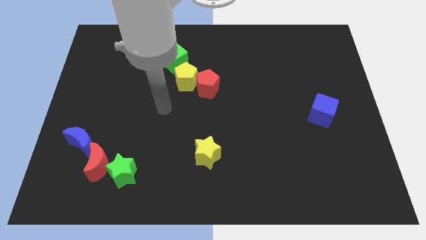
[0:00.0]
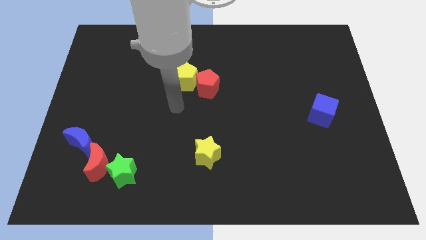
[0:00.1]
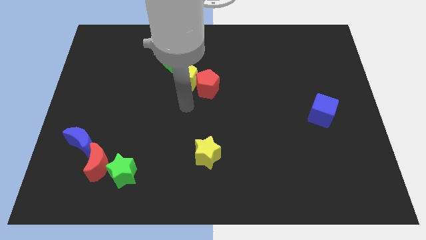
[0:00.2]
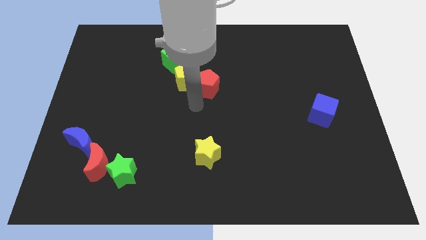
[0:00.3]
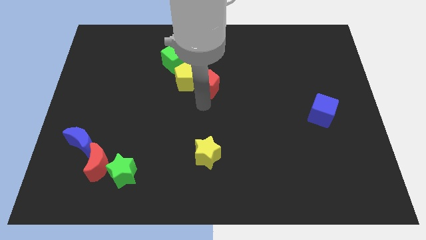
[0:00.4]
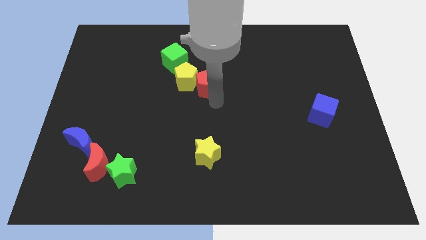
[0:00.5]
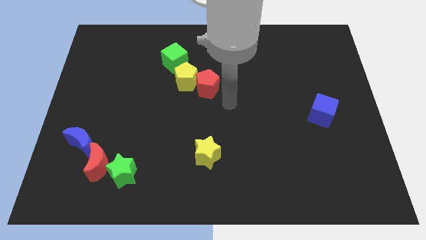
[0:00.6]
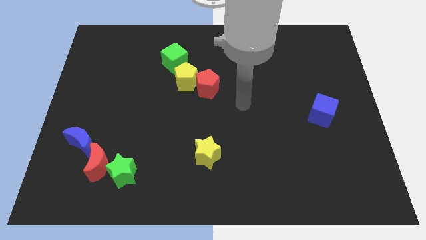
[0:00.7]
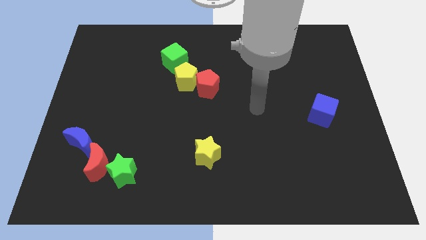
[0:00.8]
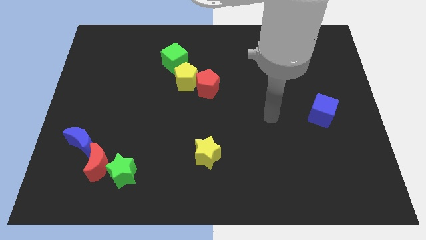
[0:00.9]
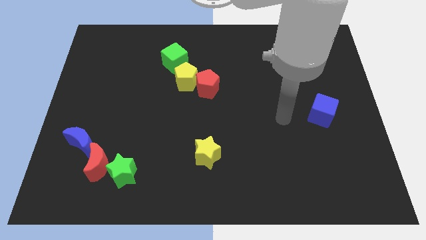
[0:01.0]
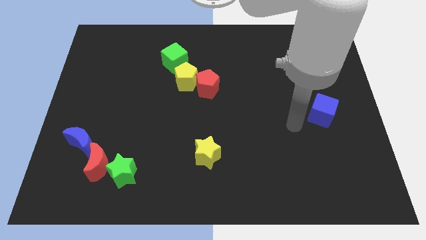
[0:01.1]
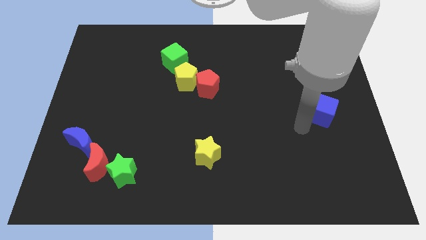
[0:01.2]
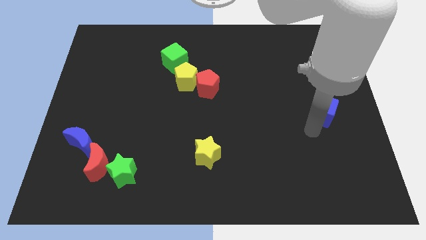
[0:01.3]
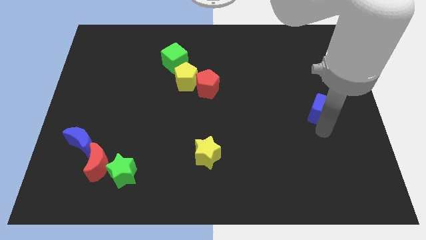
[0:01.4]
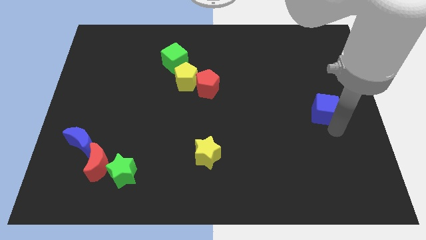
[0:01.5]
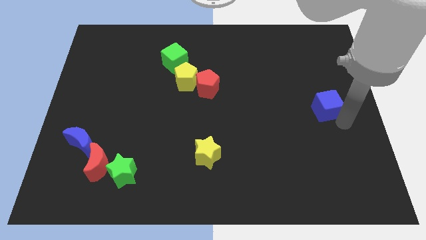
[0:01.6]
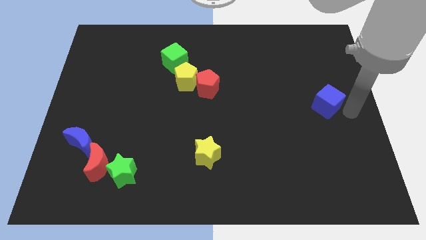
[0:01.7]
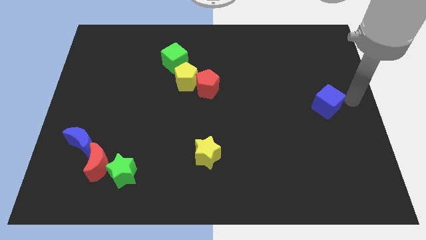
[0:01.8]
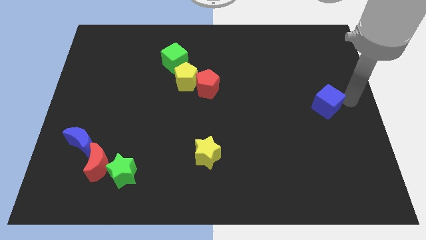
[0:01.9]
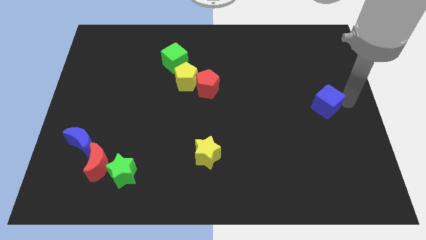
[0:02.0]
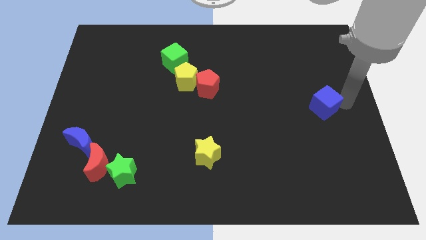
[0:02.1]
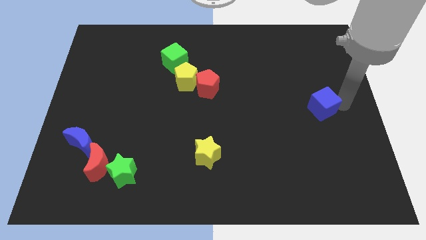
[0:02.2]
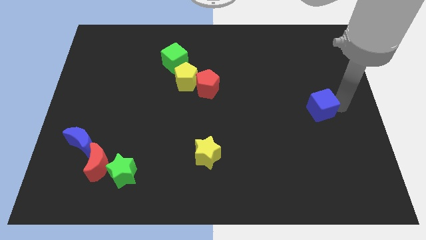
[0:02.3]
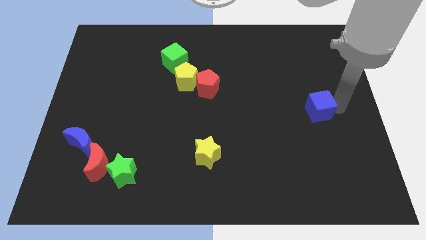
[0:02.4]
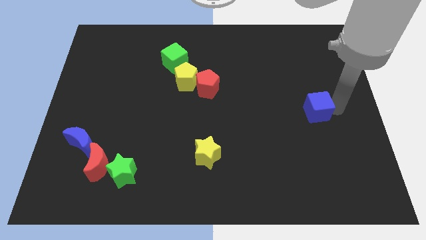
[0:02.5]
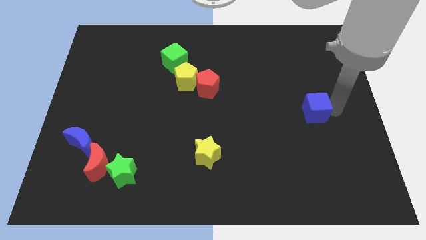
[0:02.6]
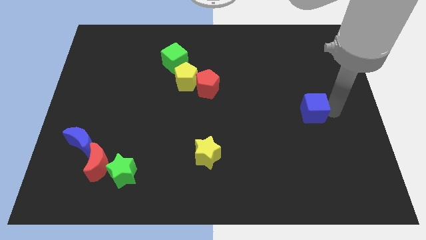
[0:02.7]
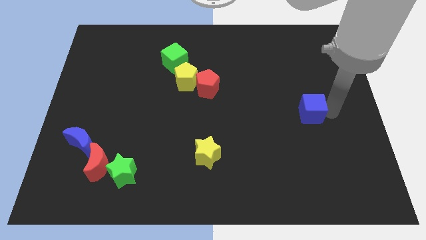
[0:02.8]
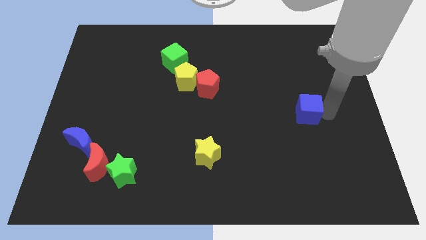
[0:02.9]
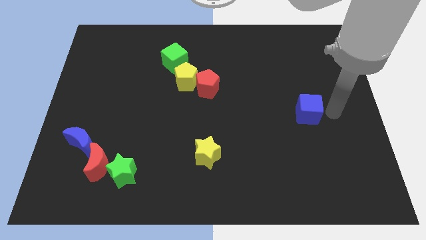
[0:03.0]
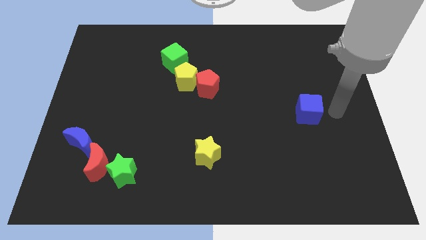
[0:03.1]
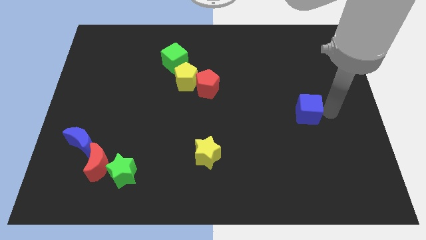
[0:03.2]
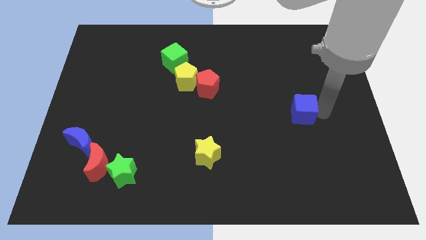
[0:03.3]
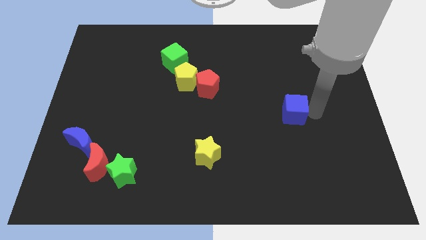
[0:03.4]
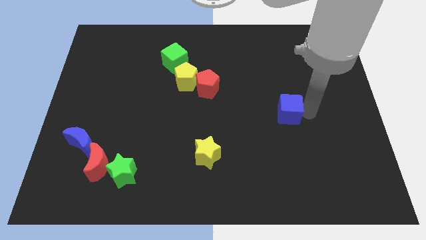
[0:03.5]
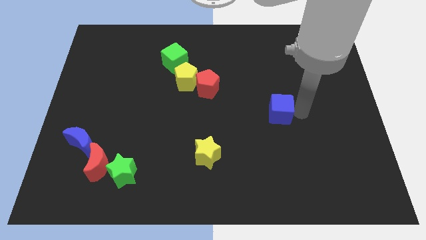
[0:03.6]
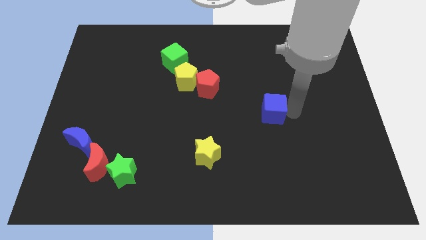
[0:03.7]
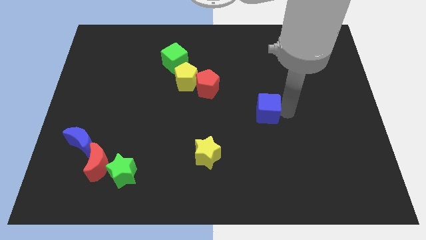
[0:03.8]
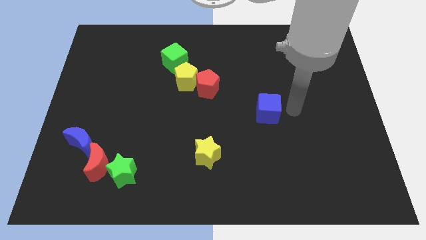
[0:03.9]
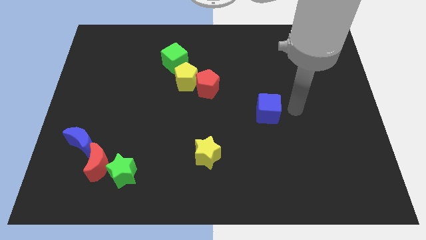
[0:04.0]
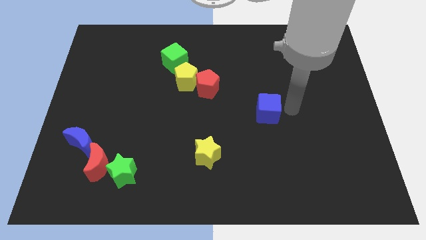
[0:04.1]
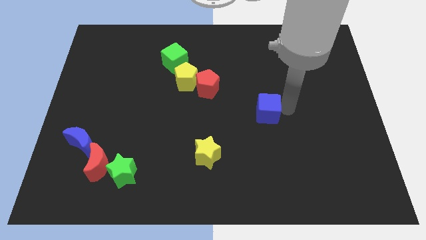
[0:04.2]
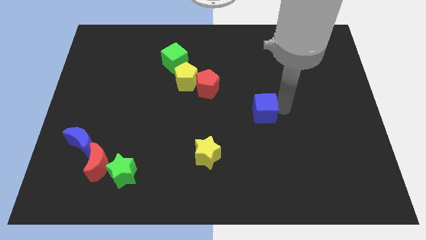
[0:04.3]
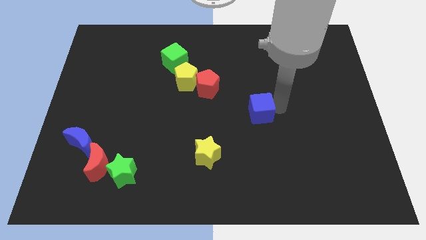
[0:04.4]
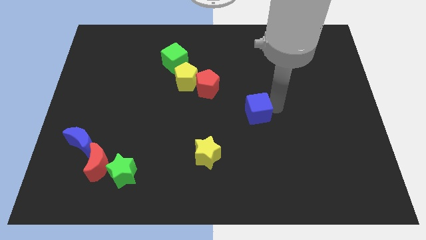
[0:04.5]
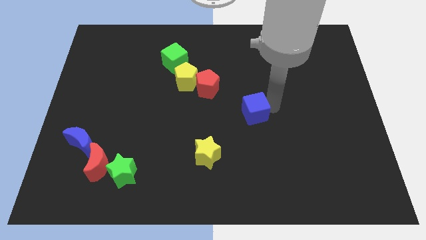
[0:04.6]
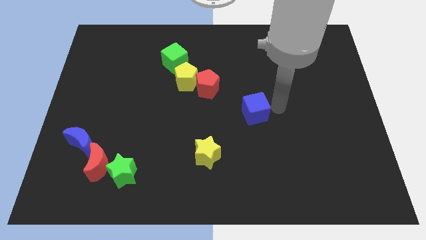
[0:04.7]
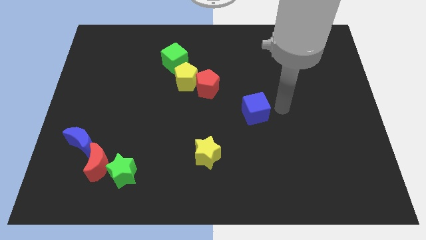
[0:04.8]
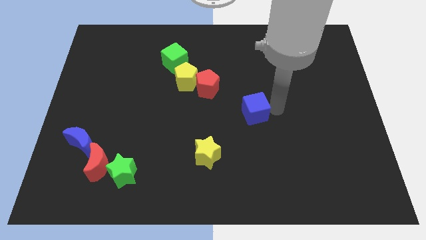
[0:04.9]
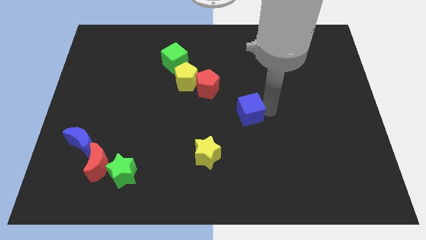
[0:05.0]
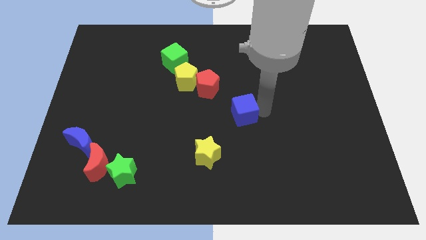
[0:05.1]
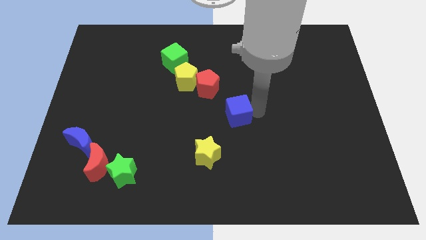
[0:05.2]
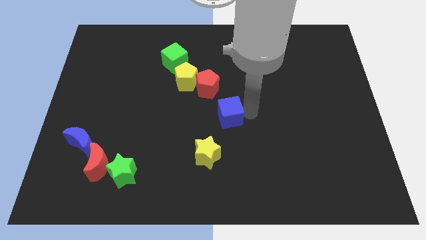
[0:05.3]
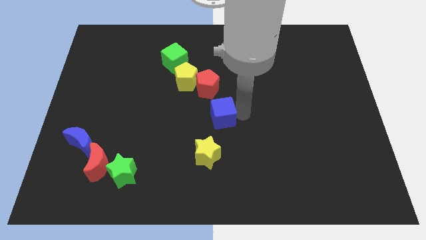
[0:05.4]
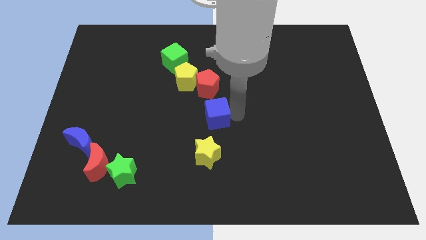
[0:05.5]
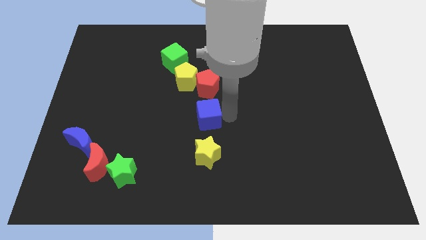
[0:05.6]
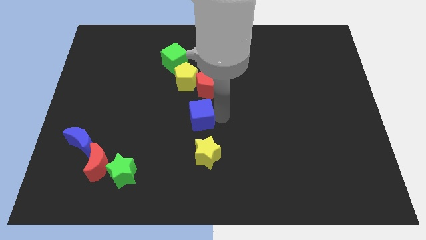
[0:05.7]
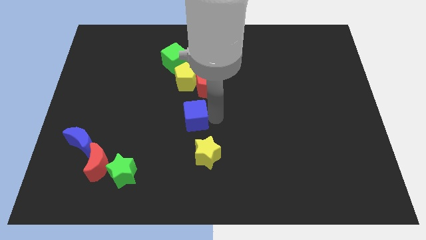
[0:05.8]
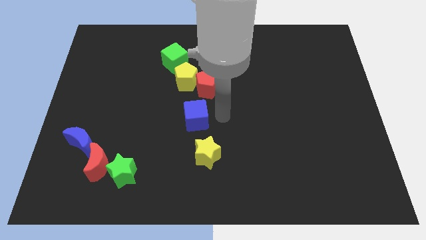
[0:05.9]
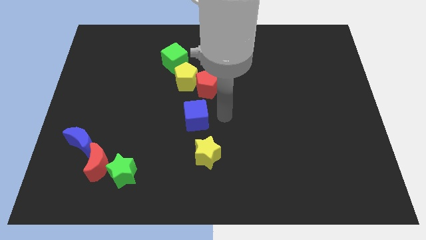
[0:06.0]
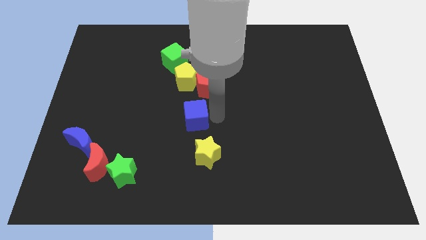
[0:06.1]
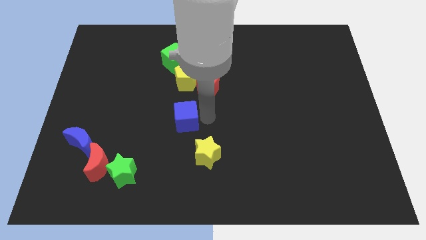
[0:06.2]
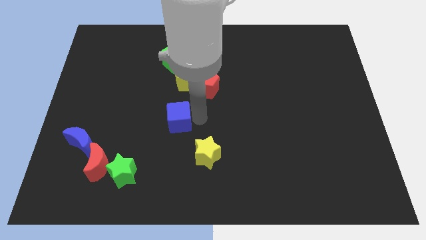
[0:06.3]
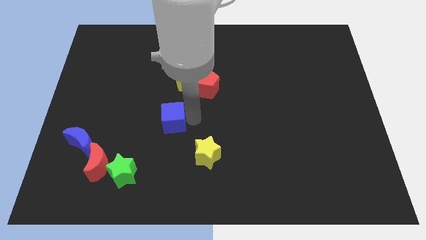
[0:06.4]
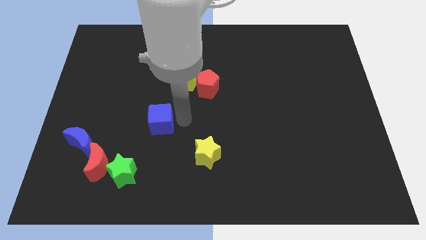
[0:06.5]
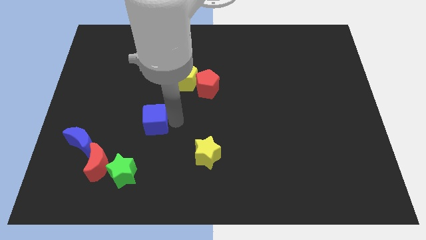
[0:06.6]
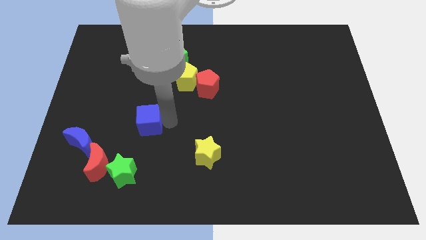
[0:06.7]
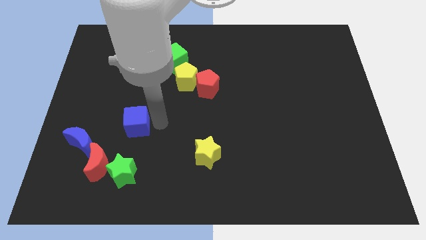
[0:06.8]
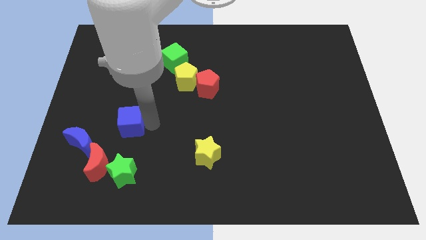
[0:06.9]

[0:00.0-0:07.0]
push the blue cube diagonally up and to the right of the blue moon

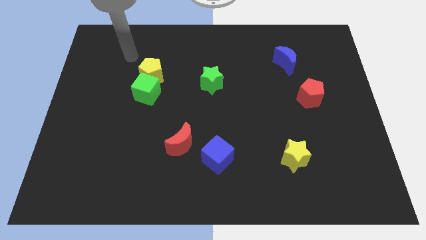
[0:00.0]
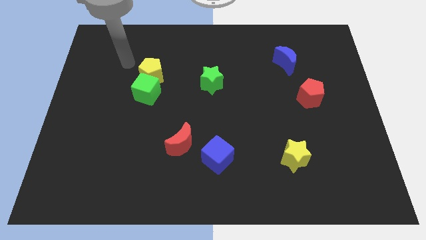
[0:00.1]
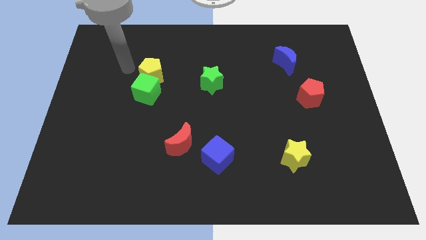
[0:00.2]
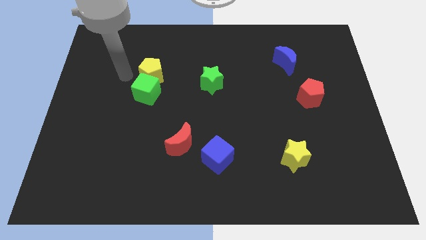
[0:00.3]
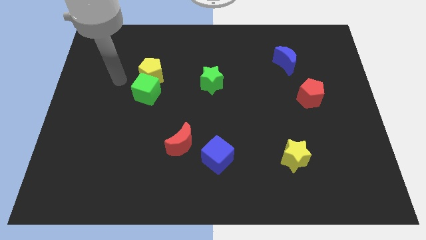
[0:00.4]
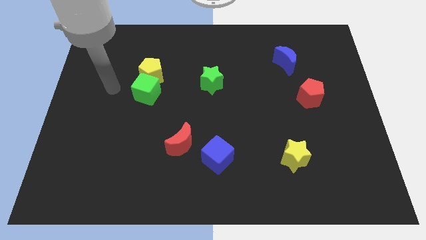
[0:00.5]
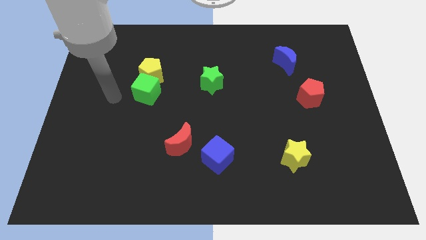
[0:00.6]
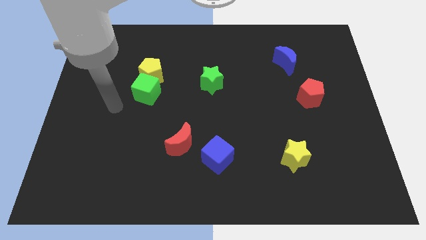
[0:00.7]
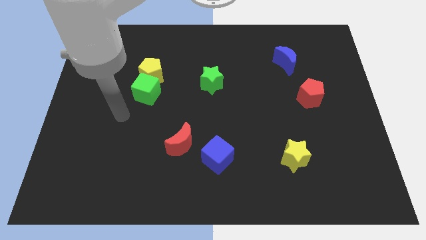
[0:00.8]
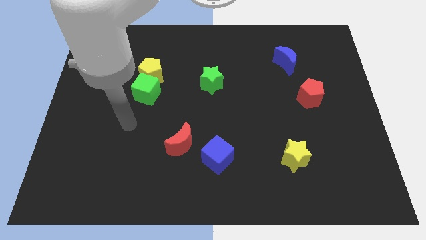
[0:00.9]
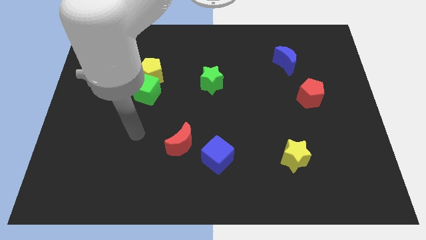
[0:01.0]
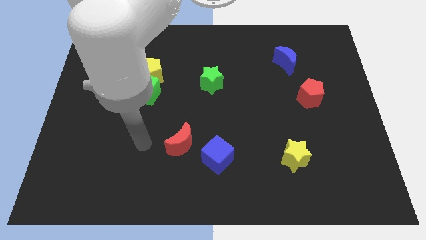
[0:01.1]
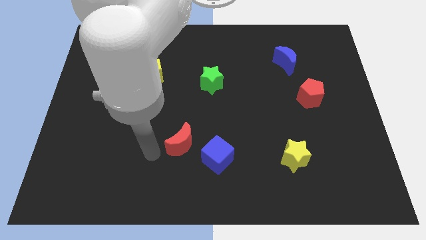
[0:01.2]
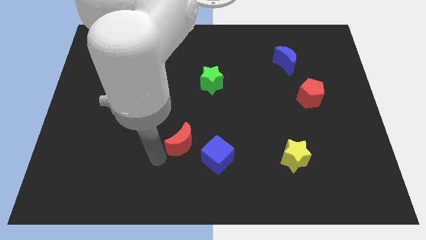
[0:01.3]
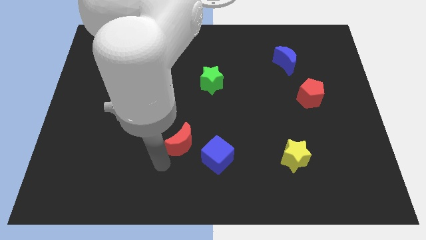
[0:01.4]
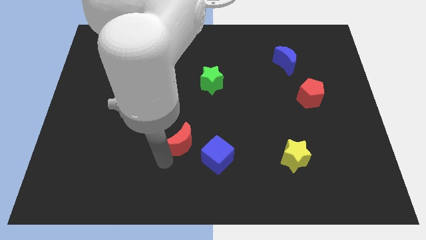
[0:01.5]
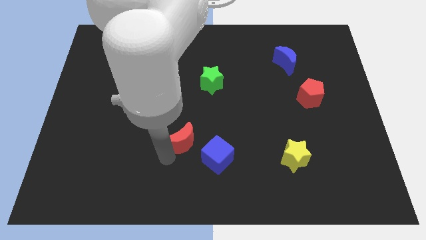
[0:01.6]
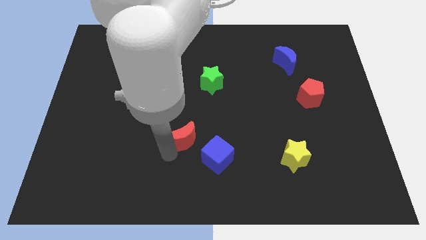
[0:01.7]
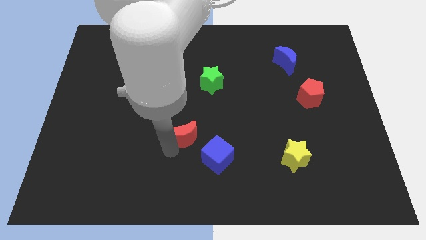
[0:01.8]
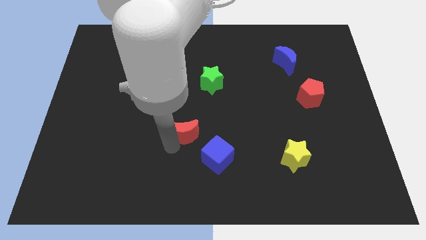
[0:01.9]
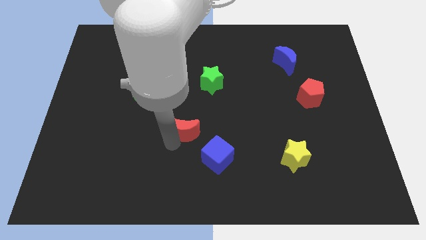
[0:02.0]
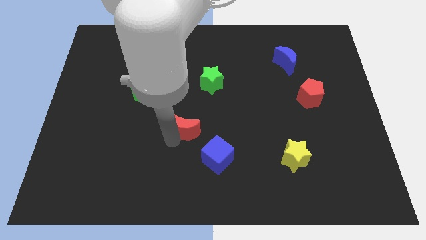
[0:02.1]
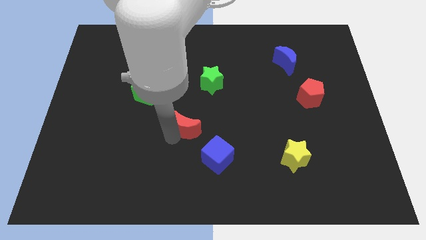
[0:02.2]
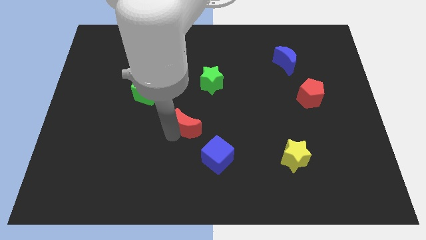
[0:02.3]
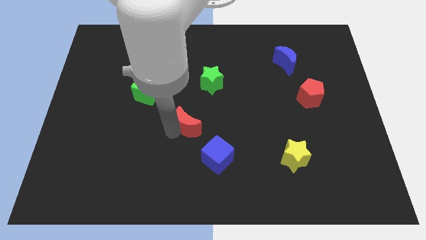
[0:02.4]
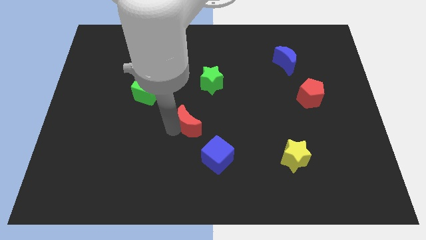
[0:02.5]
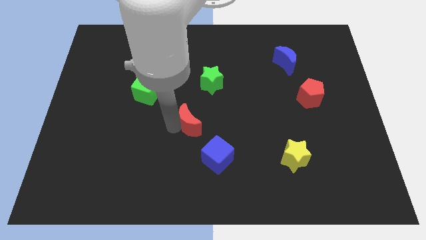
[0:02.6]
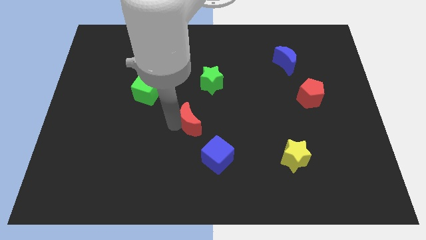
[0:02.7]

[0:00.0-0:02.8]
slide the red moon below the green star
